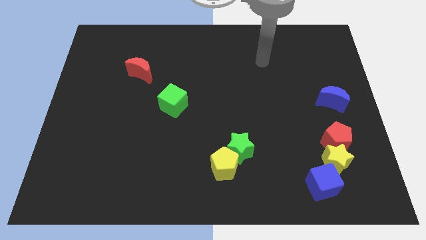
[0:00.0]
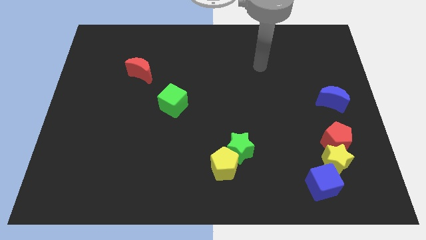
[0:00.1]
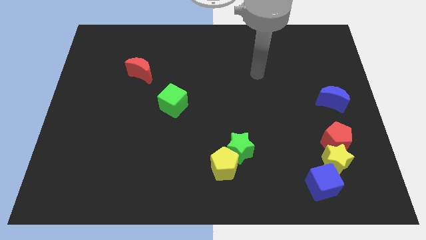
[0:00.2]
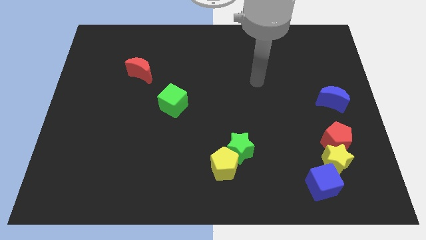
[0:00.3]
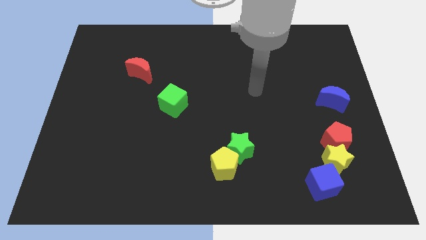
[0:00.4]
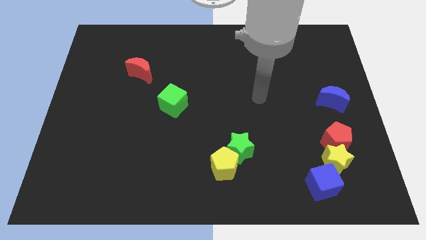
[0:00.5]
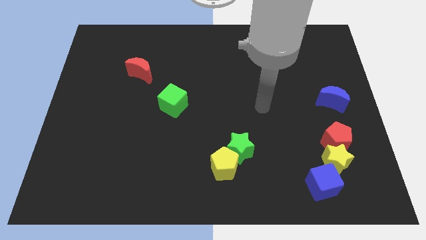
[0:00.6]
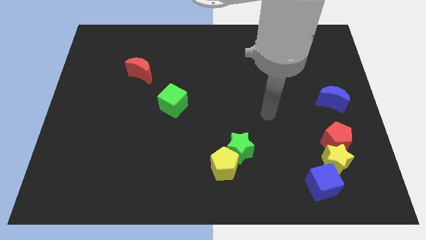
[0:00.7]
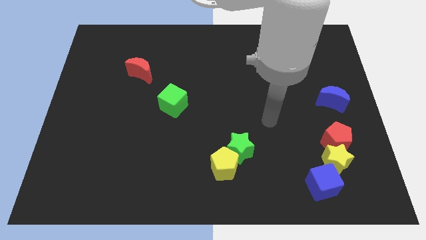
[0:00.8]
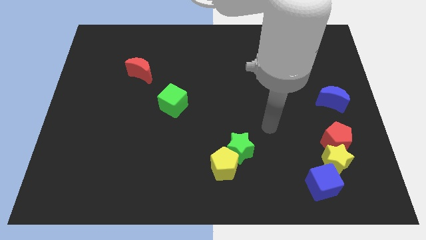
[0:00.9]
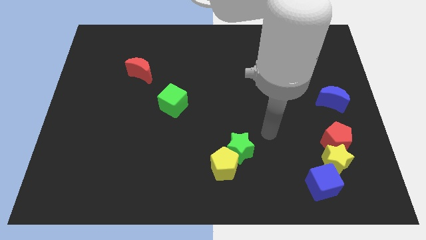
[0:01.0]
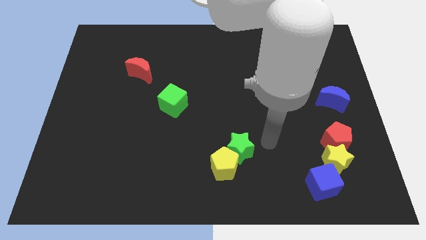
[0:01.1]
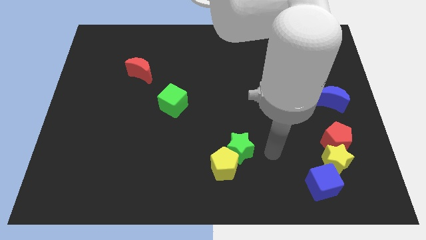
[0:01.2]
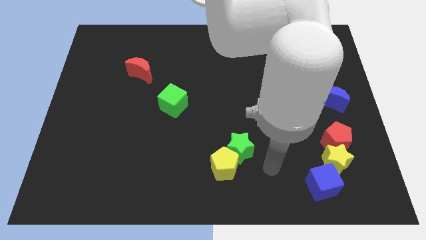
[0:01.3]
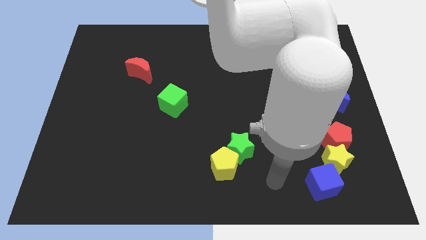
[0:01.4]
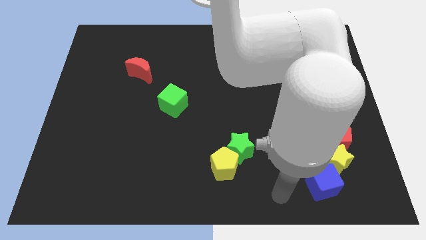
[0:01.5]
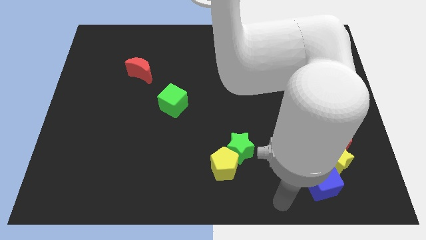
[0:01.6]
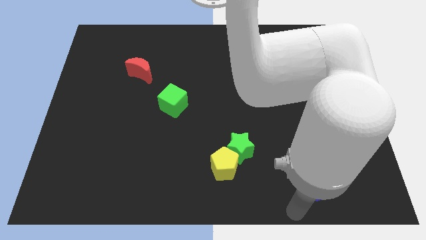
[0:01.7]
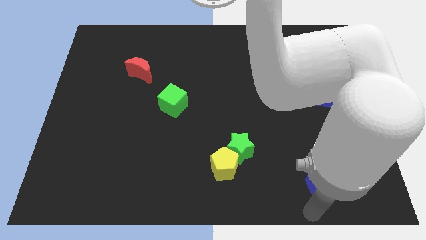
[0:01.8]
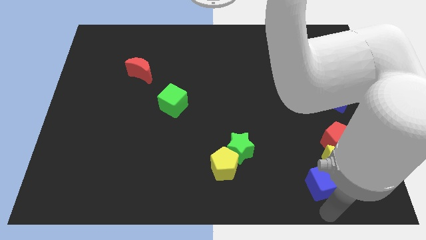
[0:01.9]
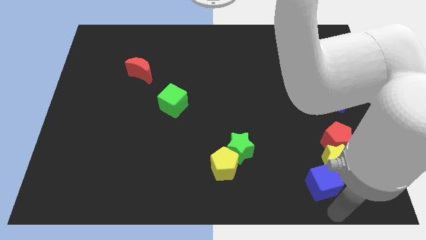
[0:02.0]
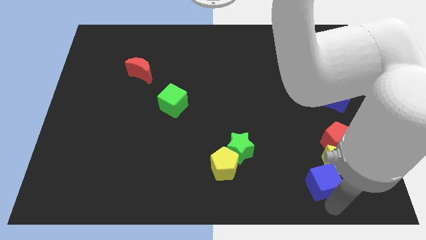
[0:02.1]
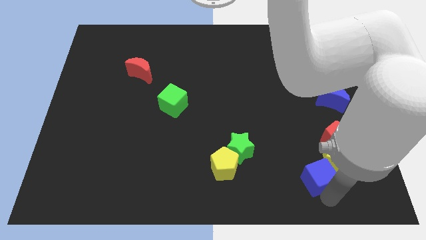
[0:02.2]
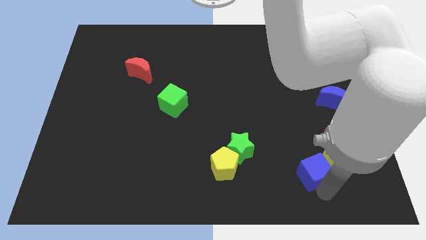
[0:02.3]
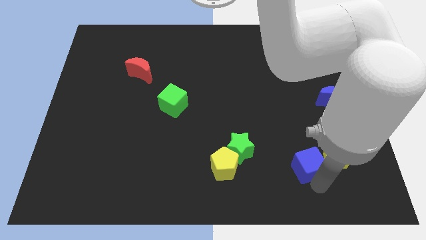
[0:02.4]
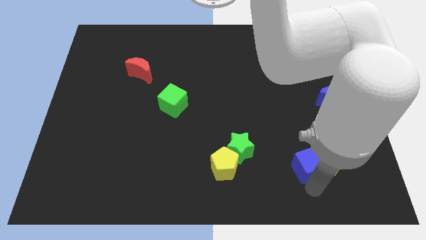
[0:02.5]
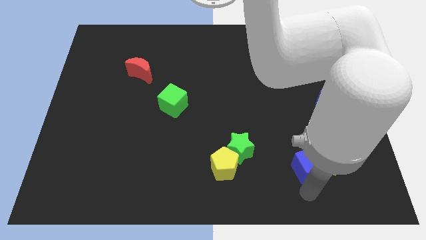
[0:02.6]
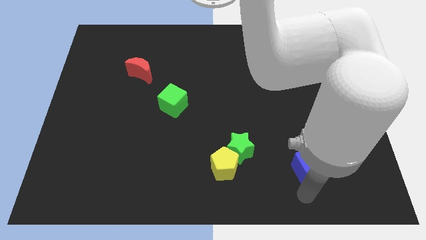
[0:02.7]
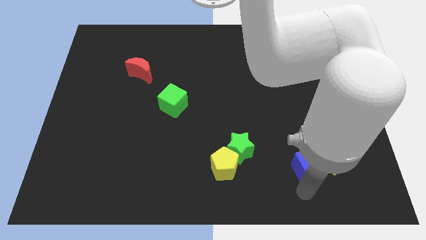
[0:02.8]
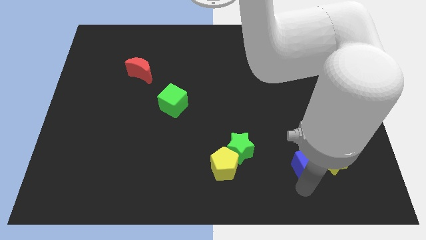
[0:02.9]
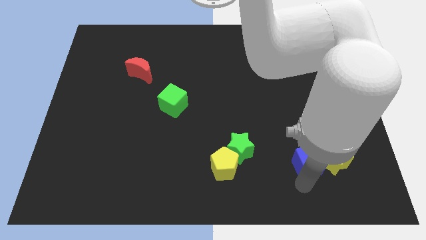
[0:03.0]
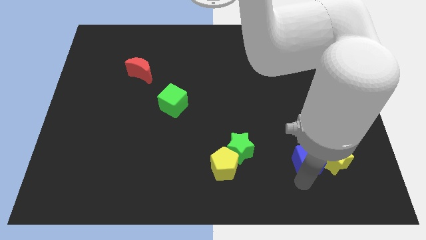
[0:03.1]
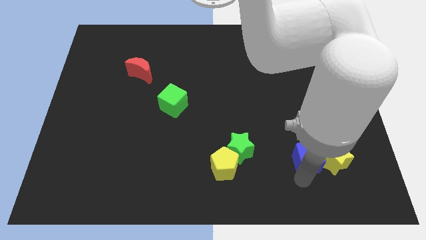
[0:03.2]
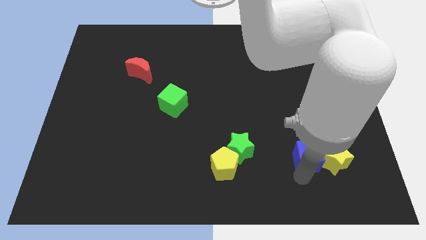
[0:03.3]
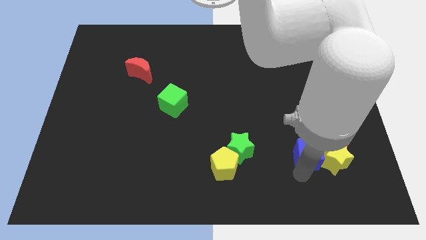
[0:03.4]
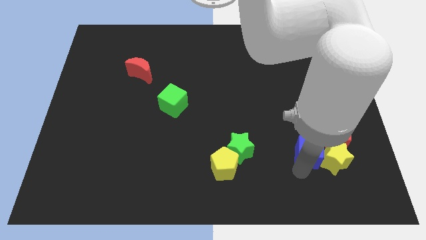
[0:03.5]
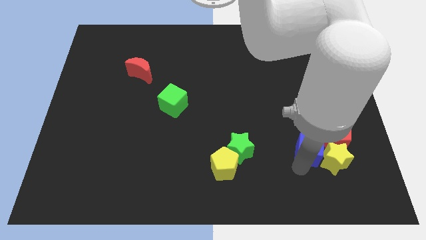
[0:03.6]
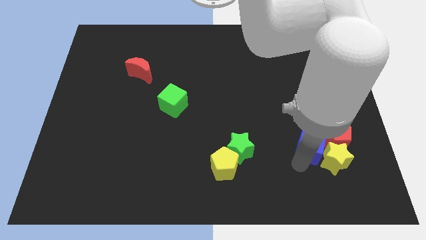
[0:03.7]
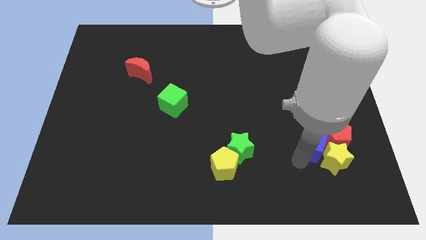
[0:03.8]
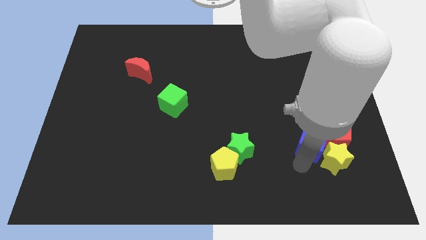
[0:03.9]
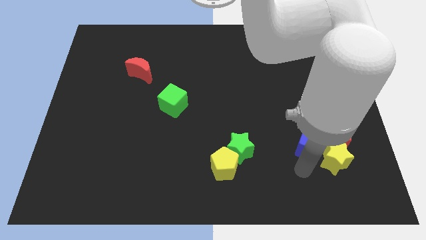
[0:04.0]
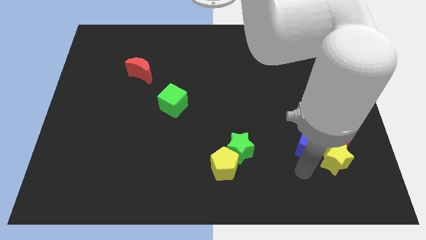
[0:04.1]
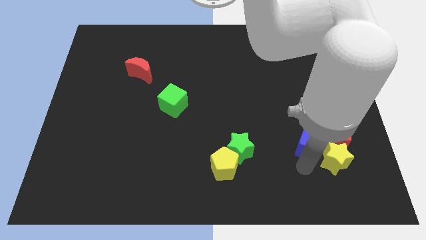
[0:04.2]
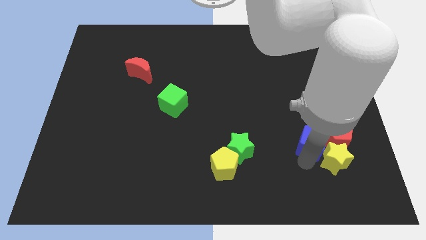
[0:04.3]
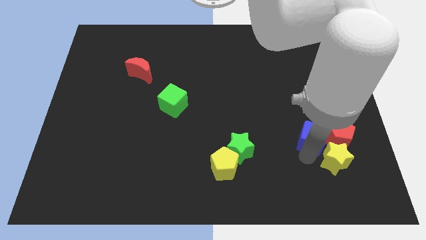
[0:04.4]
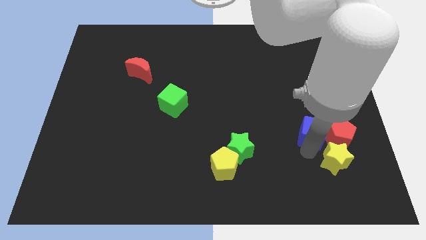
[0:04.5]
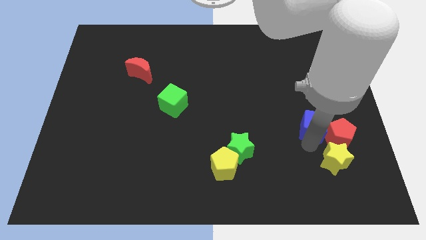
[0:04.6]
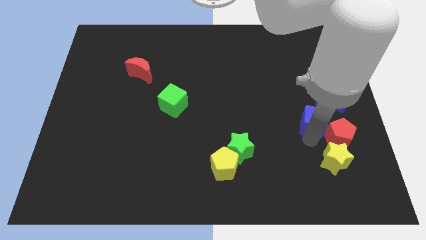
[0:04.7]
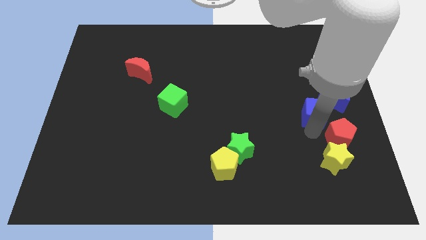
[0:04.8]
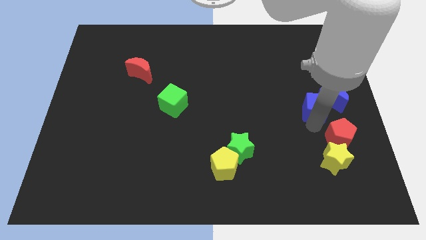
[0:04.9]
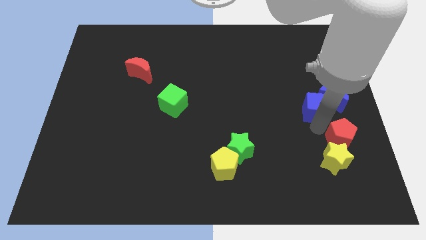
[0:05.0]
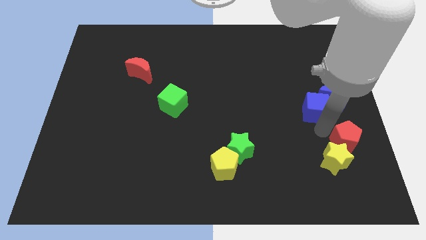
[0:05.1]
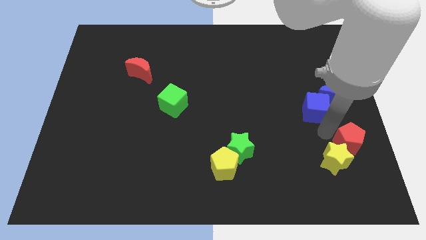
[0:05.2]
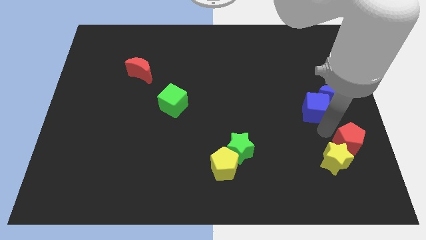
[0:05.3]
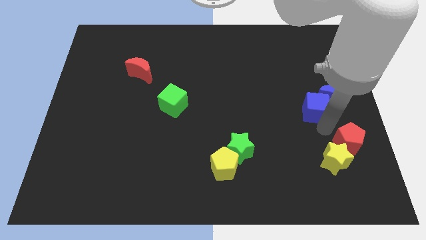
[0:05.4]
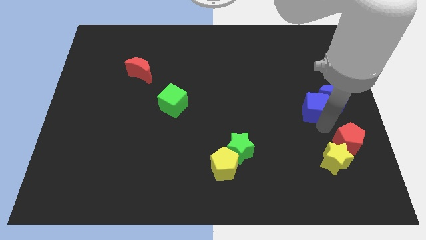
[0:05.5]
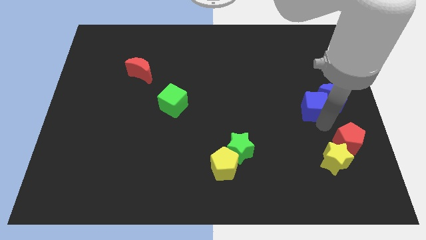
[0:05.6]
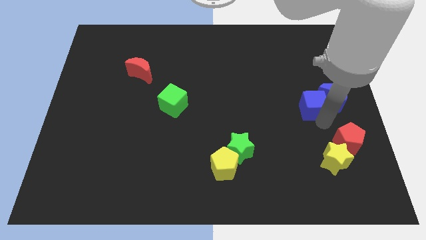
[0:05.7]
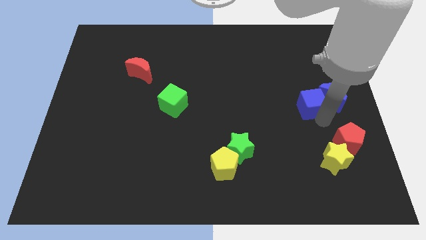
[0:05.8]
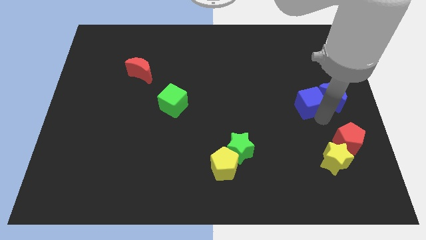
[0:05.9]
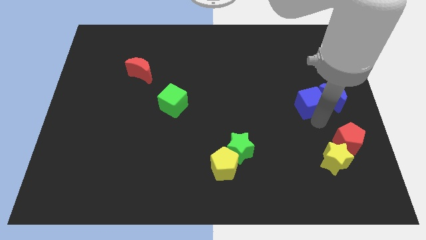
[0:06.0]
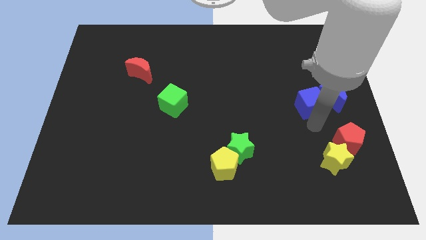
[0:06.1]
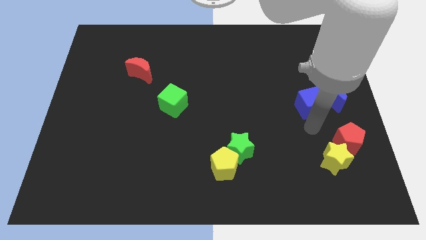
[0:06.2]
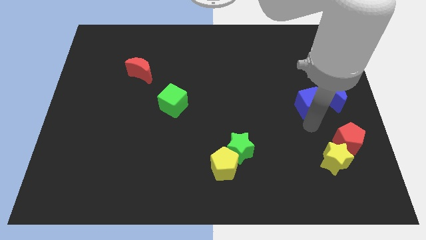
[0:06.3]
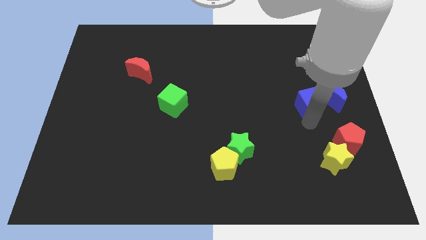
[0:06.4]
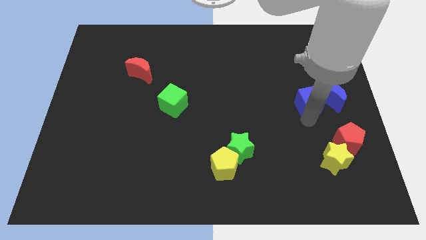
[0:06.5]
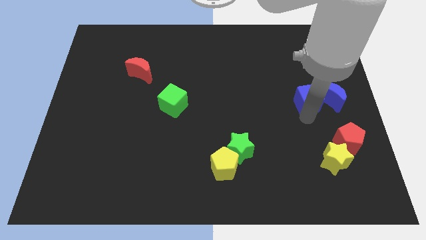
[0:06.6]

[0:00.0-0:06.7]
move the blue cube to the top left of the blue moon

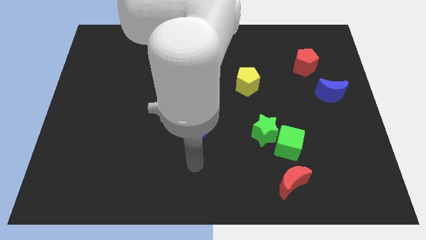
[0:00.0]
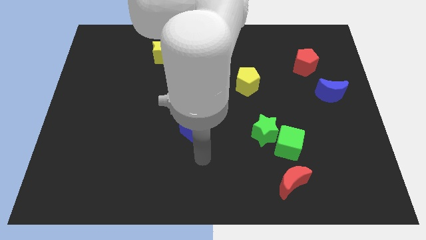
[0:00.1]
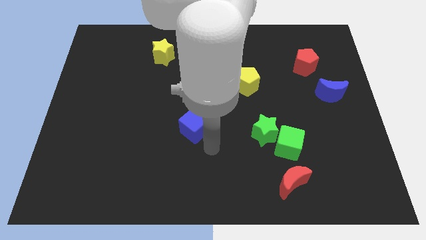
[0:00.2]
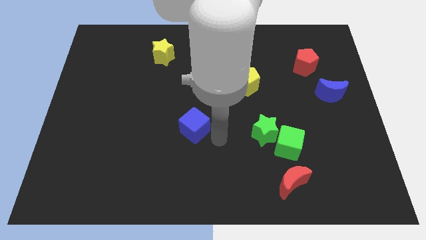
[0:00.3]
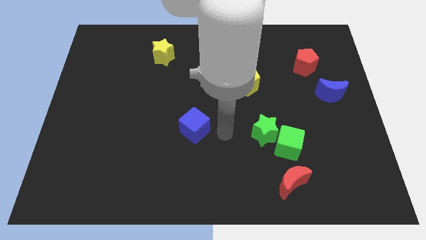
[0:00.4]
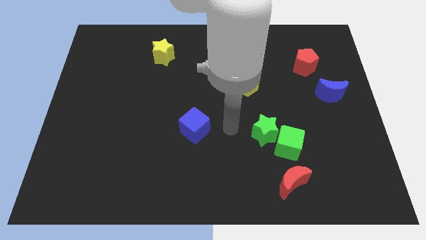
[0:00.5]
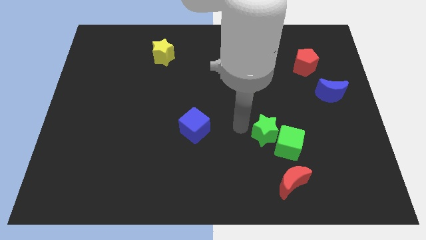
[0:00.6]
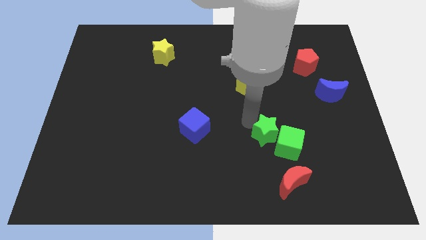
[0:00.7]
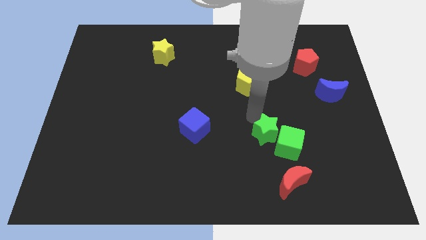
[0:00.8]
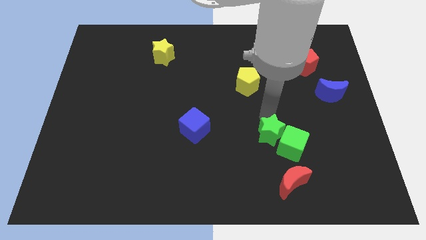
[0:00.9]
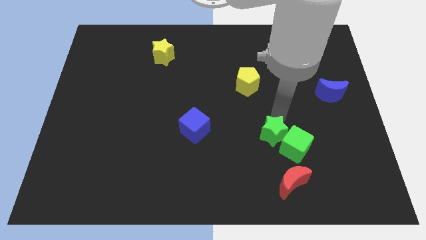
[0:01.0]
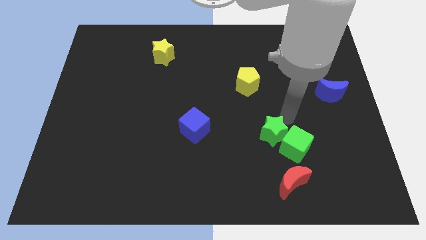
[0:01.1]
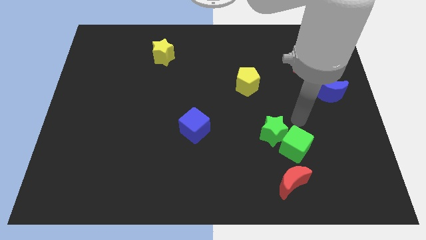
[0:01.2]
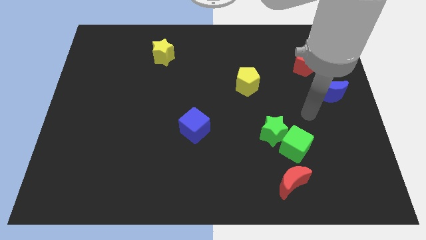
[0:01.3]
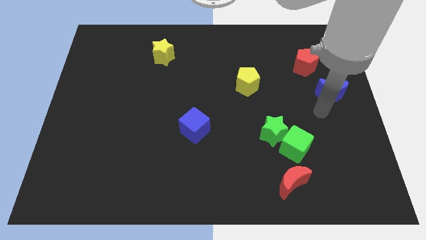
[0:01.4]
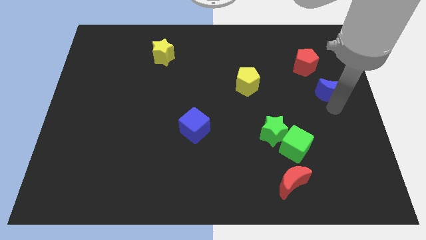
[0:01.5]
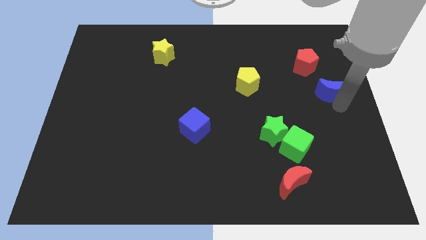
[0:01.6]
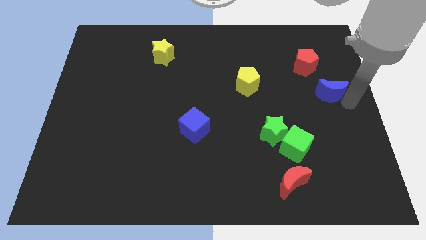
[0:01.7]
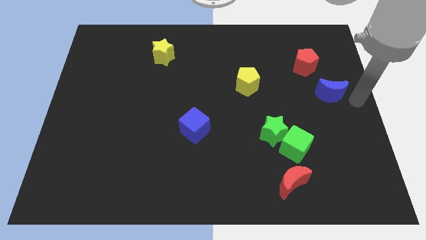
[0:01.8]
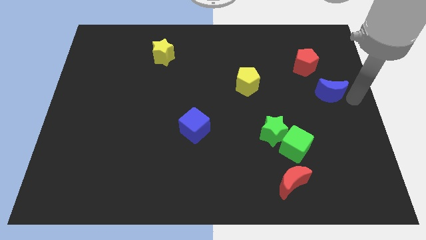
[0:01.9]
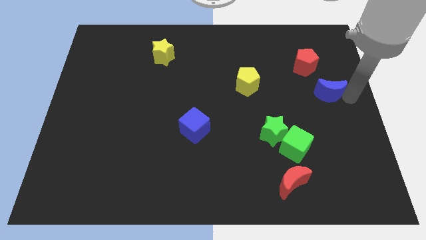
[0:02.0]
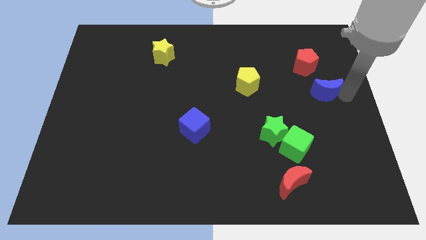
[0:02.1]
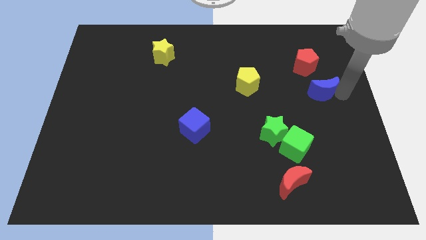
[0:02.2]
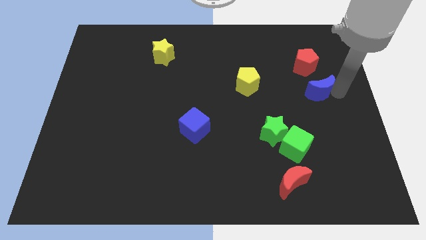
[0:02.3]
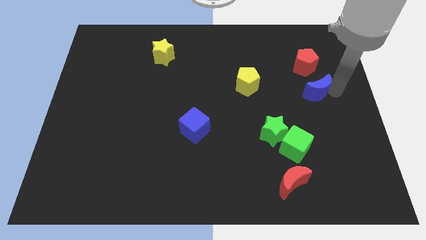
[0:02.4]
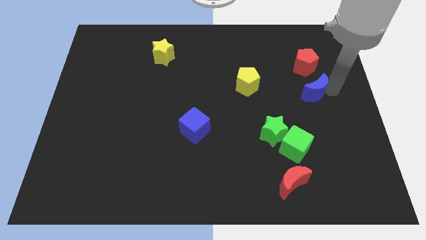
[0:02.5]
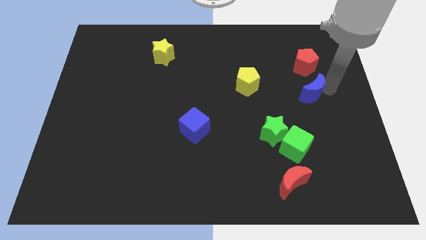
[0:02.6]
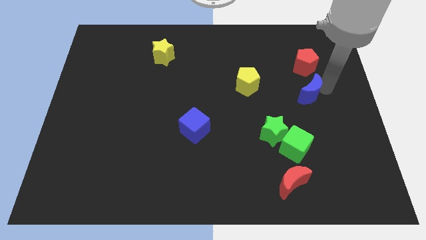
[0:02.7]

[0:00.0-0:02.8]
slide the blue moon to the right side of the yellow pentagon
